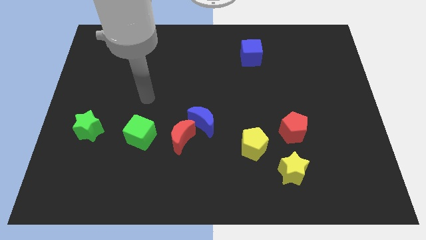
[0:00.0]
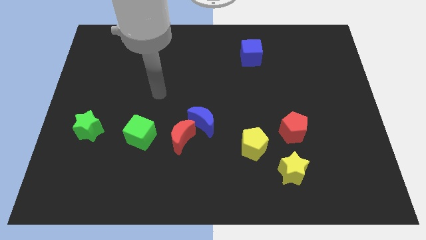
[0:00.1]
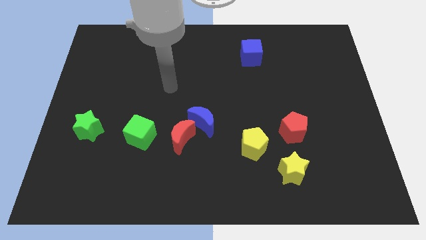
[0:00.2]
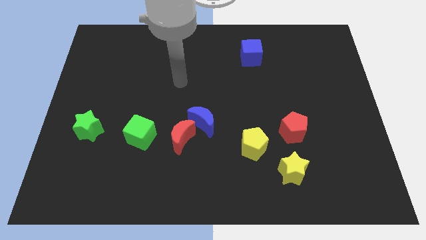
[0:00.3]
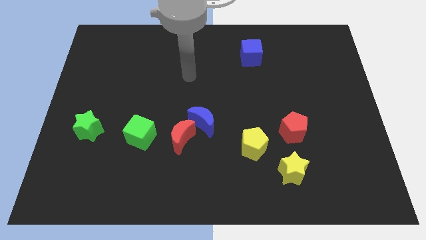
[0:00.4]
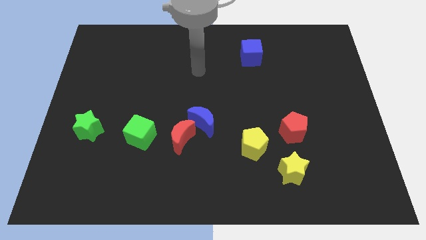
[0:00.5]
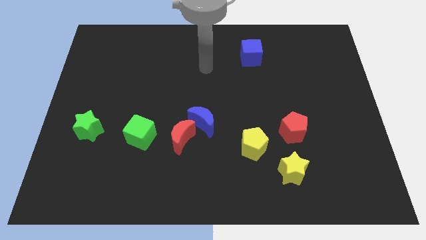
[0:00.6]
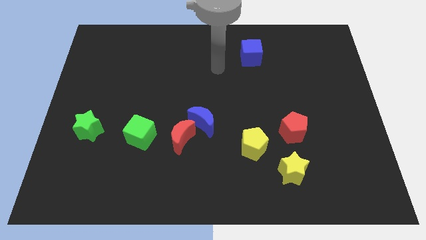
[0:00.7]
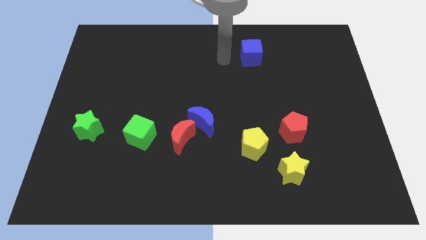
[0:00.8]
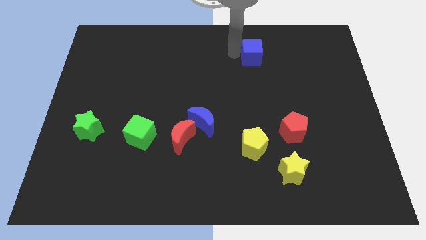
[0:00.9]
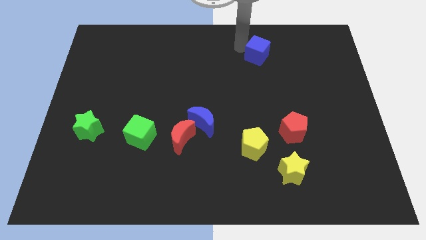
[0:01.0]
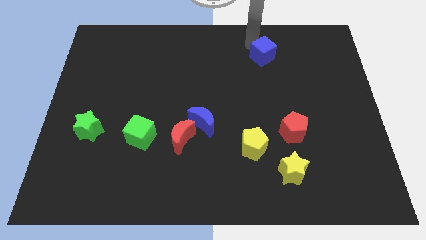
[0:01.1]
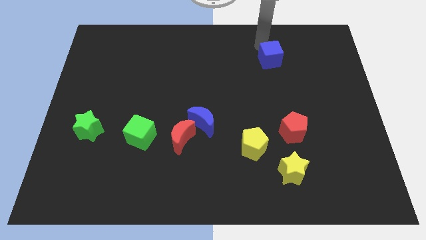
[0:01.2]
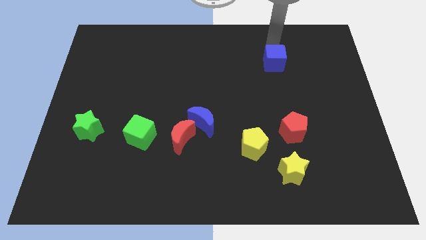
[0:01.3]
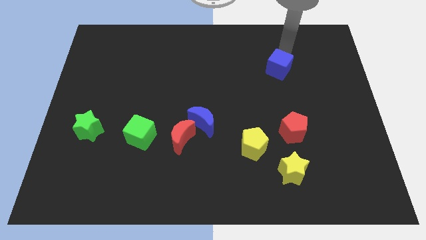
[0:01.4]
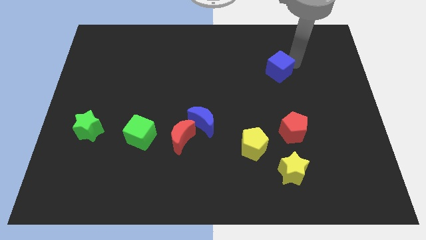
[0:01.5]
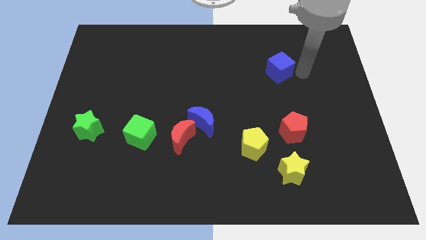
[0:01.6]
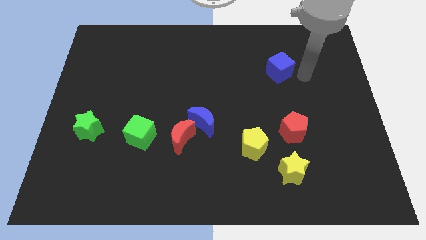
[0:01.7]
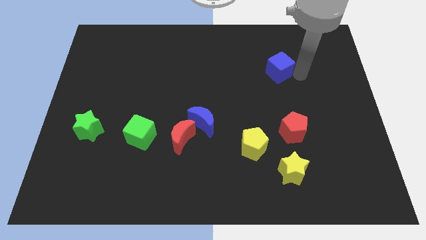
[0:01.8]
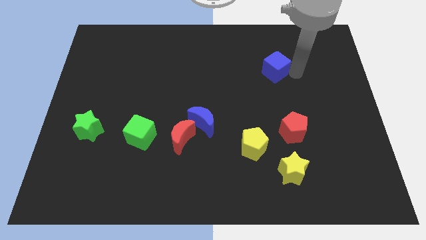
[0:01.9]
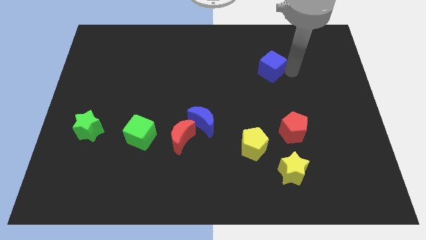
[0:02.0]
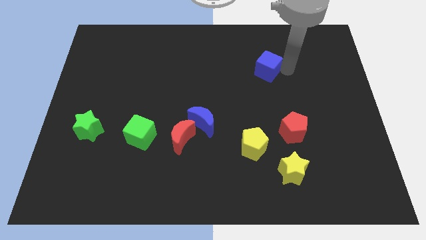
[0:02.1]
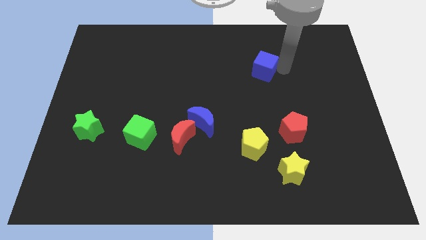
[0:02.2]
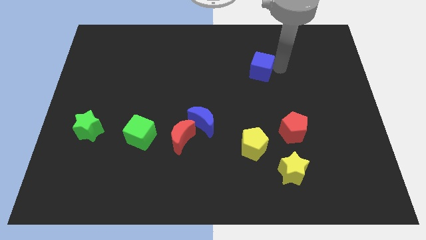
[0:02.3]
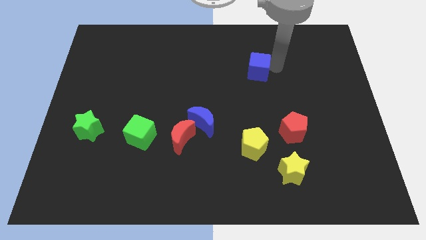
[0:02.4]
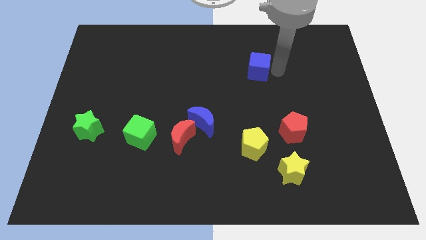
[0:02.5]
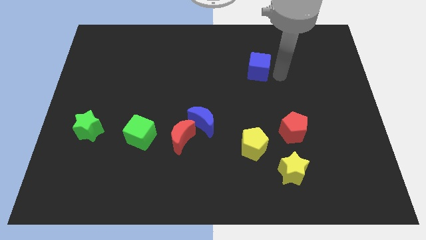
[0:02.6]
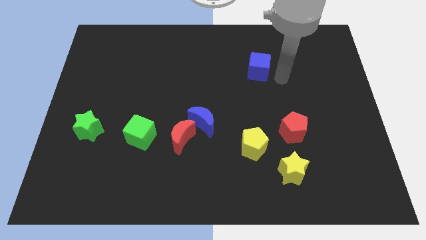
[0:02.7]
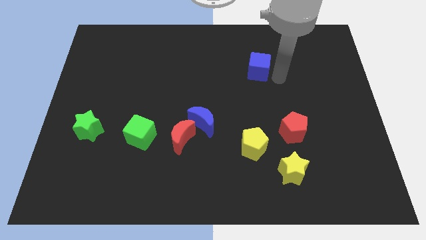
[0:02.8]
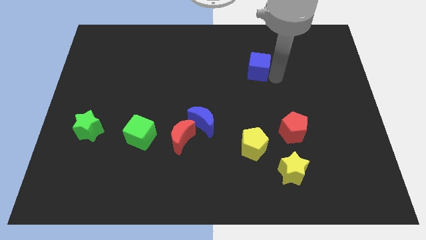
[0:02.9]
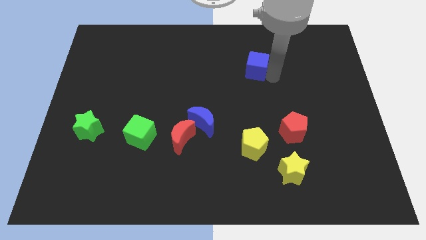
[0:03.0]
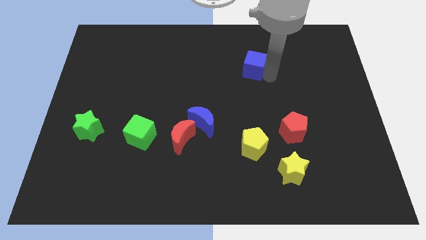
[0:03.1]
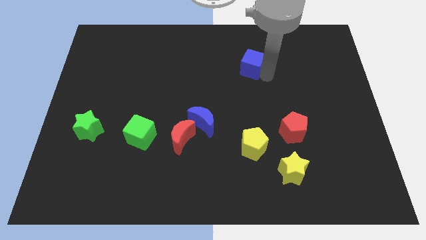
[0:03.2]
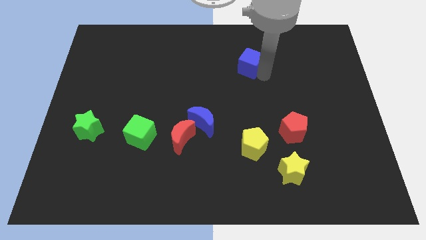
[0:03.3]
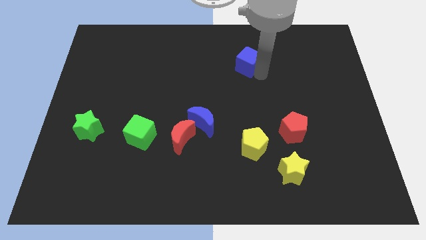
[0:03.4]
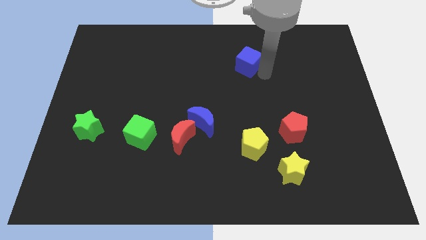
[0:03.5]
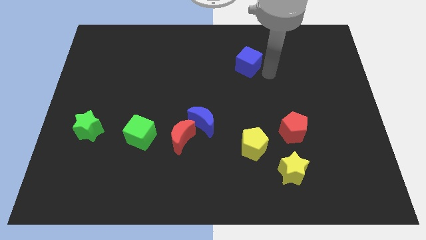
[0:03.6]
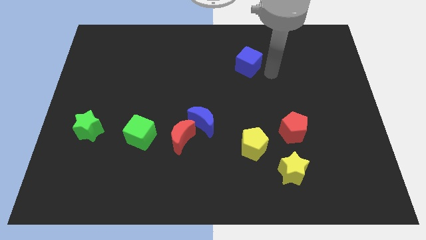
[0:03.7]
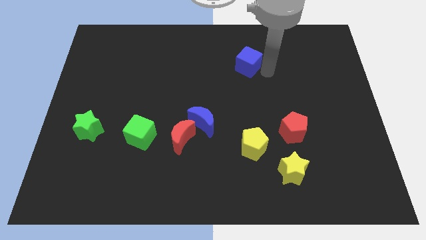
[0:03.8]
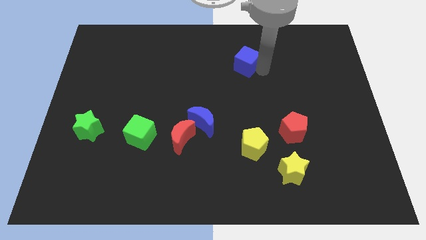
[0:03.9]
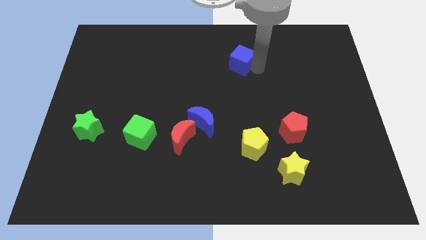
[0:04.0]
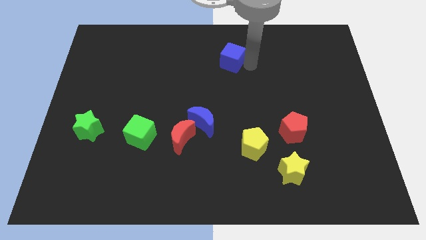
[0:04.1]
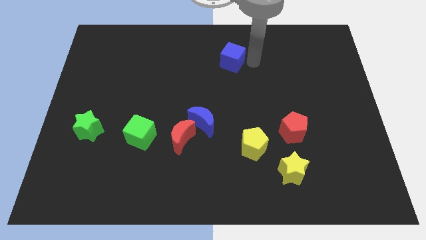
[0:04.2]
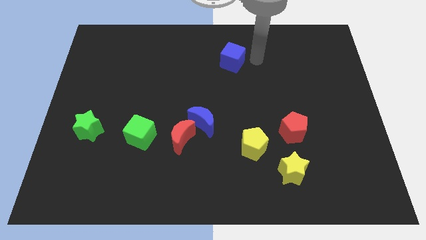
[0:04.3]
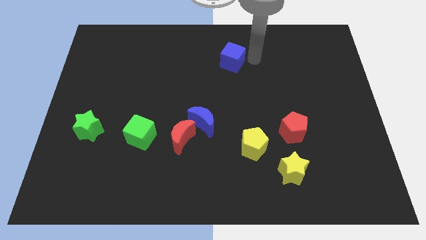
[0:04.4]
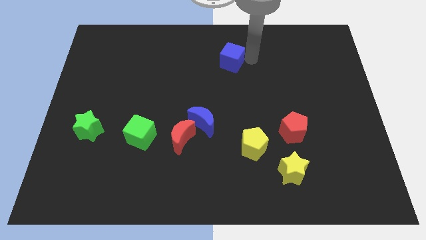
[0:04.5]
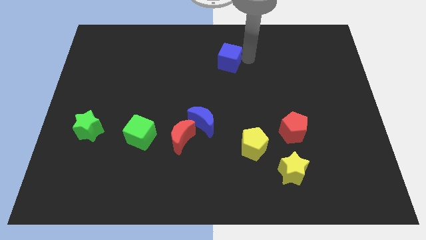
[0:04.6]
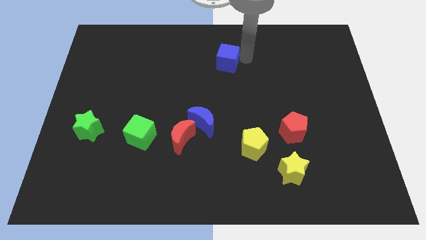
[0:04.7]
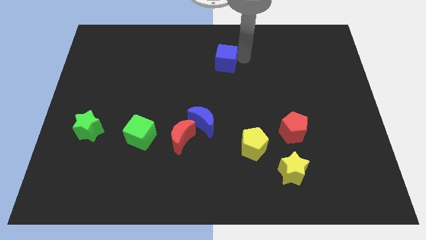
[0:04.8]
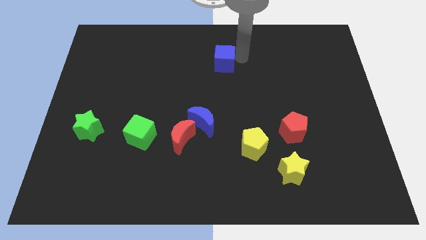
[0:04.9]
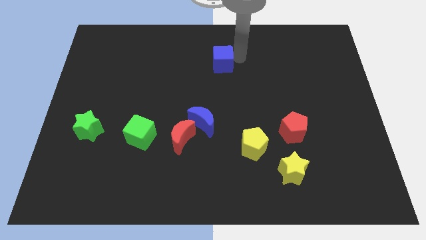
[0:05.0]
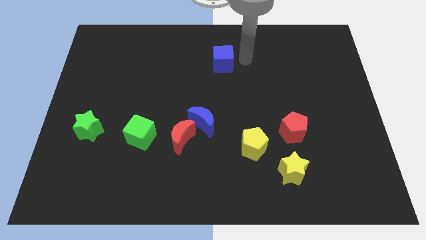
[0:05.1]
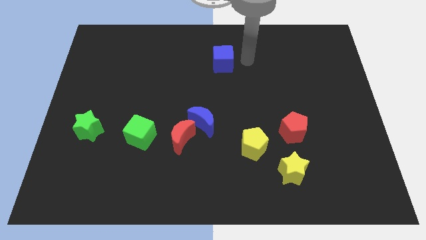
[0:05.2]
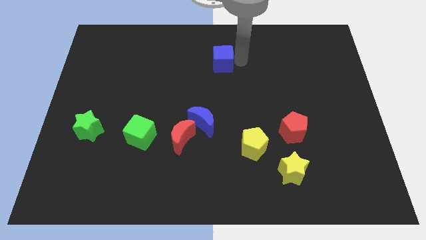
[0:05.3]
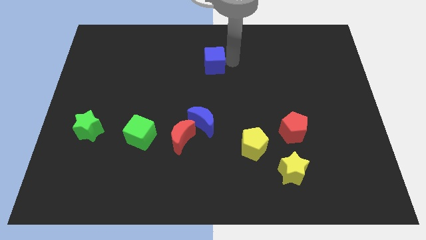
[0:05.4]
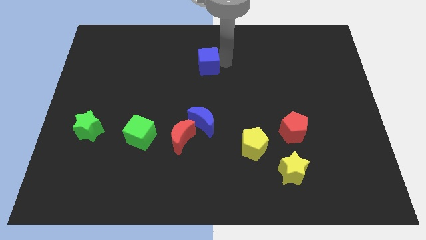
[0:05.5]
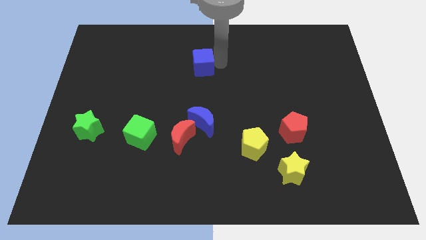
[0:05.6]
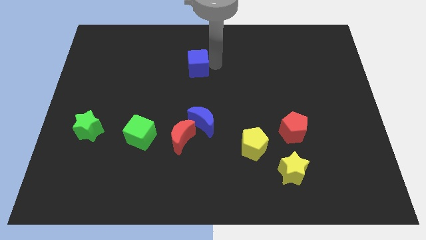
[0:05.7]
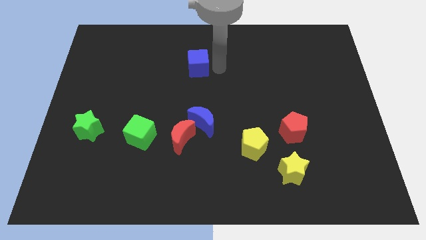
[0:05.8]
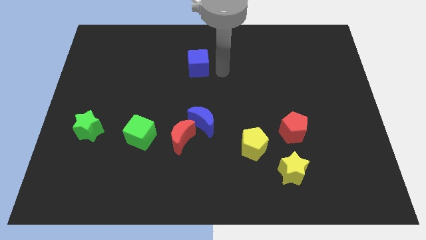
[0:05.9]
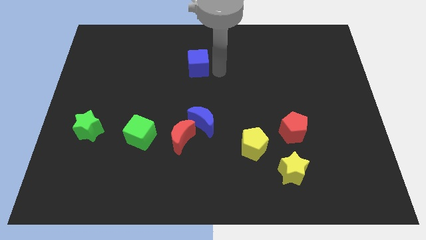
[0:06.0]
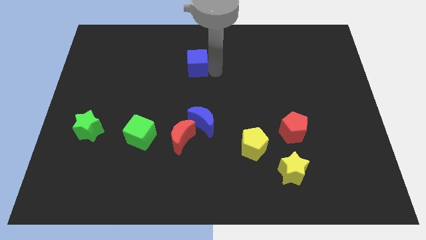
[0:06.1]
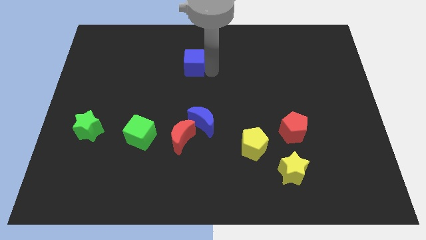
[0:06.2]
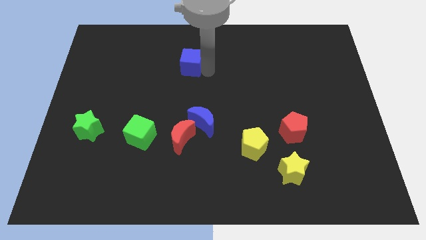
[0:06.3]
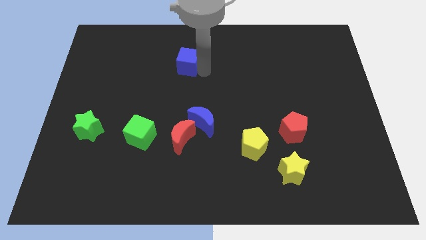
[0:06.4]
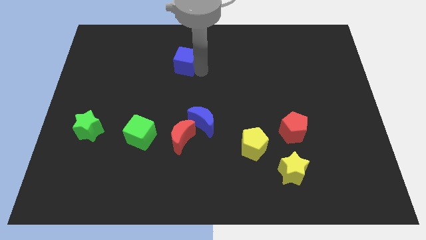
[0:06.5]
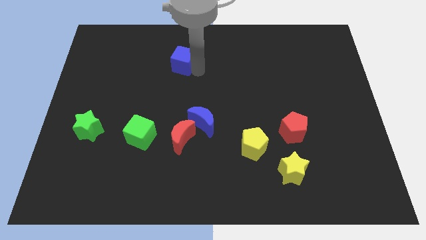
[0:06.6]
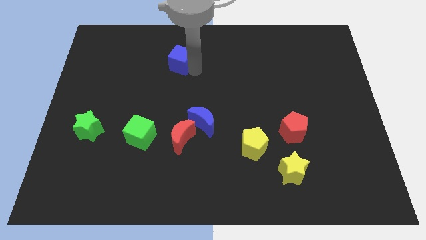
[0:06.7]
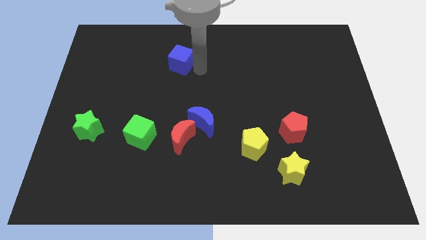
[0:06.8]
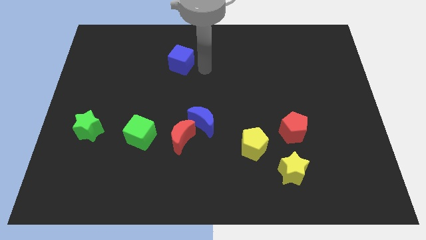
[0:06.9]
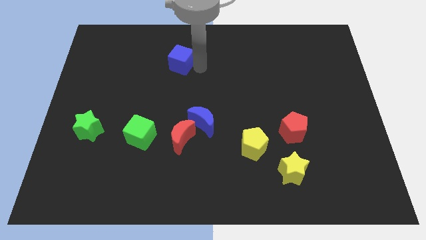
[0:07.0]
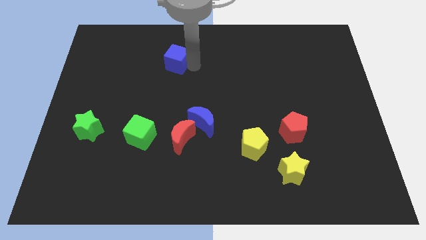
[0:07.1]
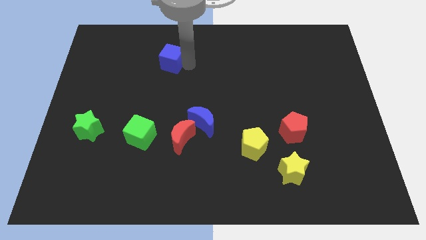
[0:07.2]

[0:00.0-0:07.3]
move the blue cube to the left

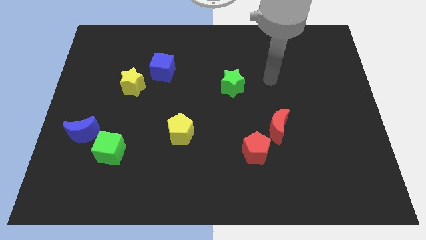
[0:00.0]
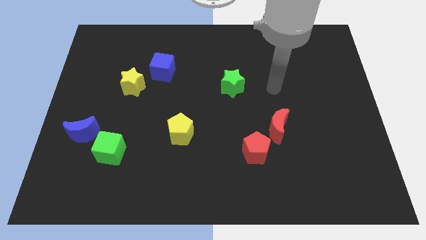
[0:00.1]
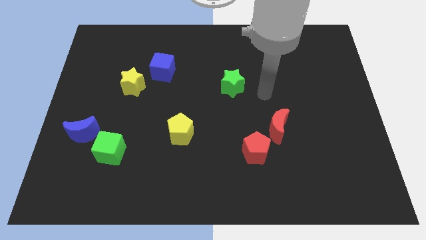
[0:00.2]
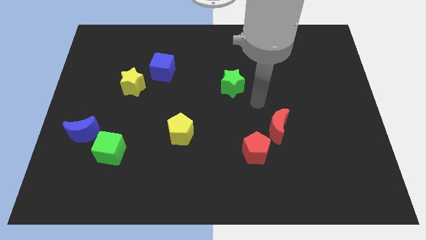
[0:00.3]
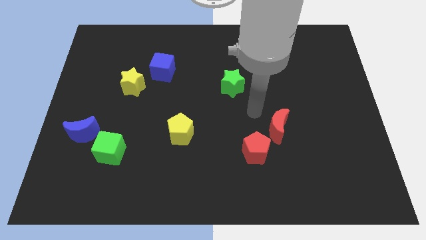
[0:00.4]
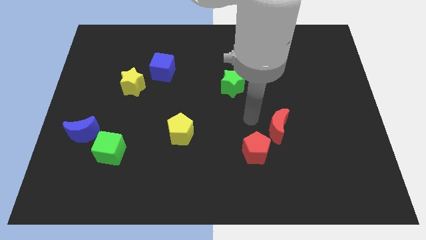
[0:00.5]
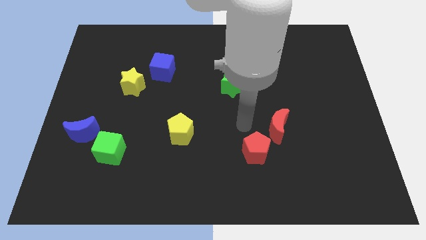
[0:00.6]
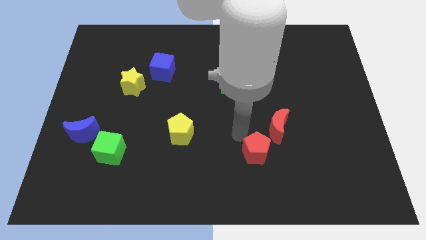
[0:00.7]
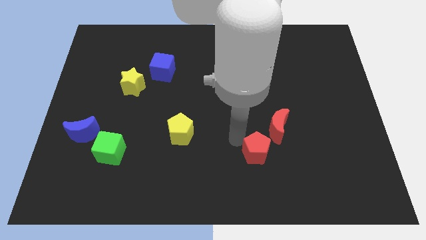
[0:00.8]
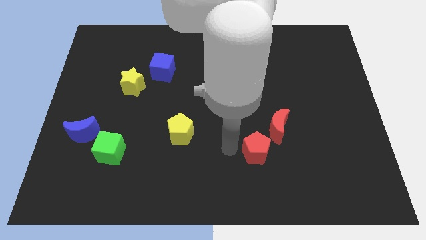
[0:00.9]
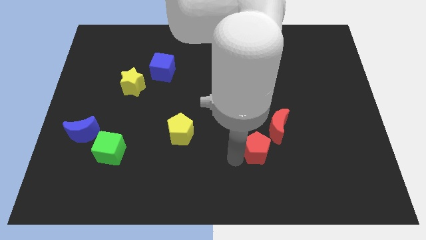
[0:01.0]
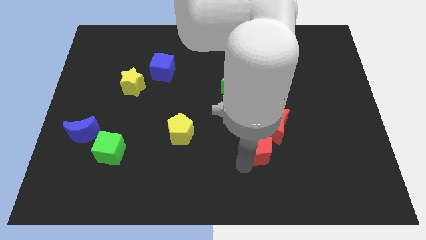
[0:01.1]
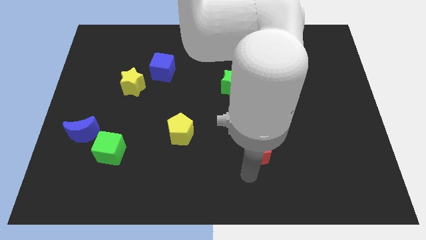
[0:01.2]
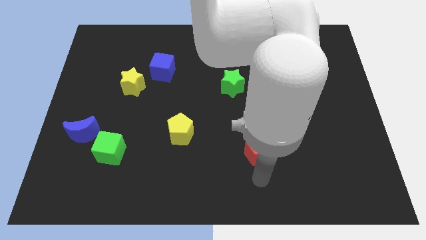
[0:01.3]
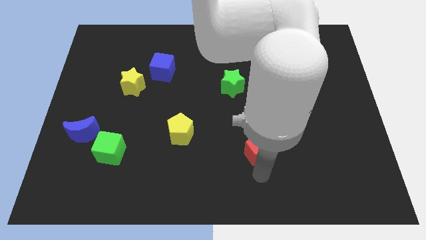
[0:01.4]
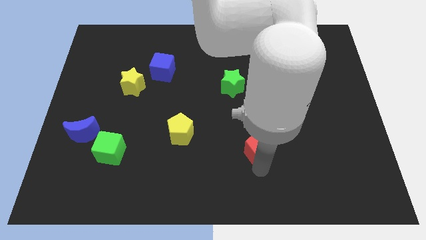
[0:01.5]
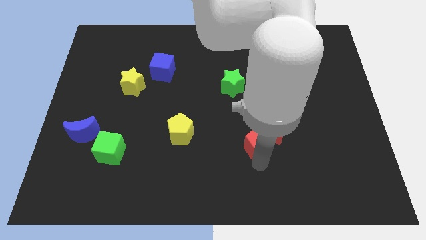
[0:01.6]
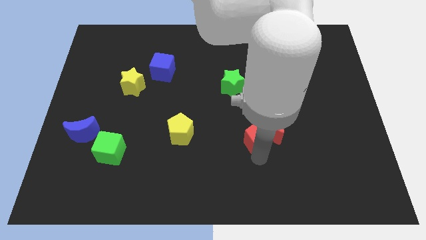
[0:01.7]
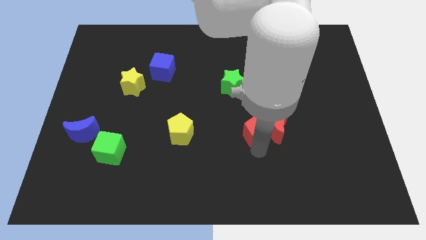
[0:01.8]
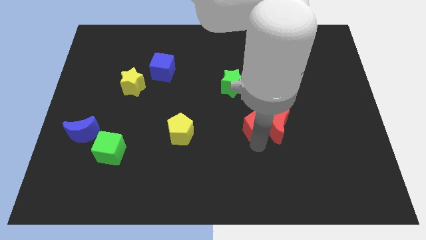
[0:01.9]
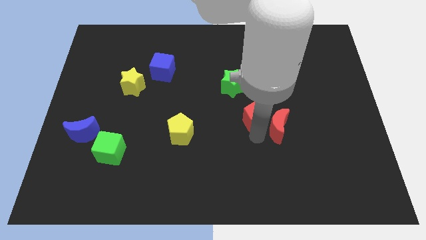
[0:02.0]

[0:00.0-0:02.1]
slide the red pentagon up a little bit
